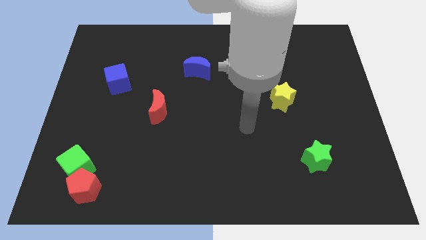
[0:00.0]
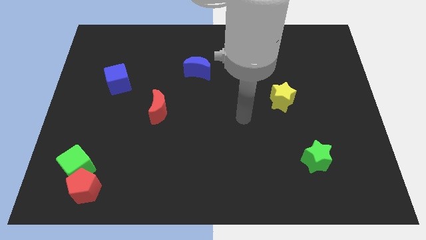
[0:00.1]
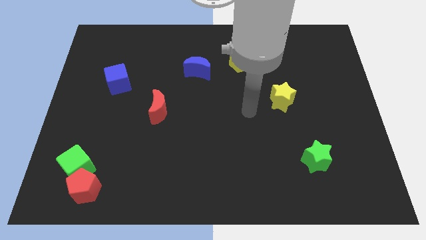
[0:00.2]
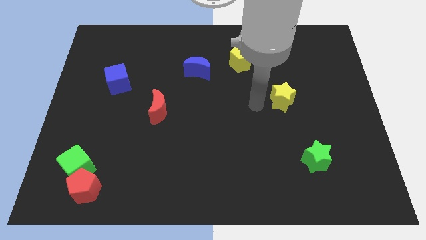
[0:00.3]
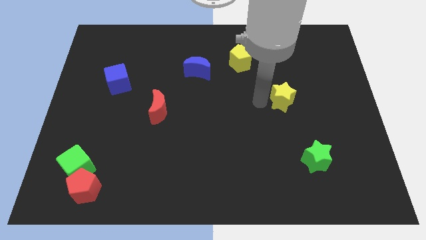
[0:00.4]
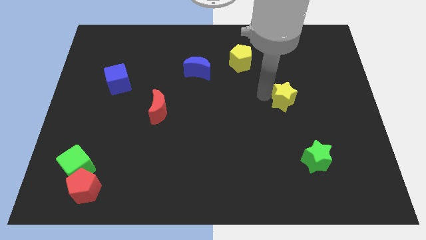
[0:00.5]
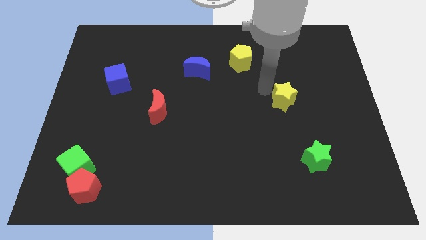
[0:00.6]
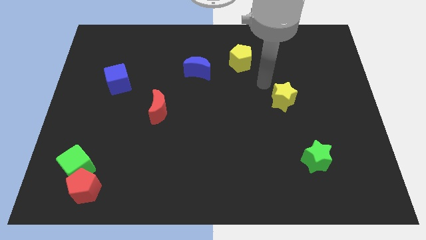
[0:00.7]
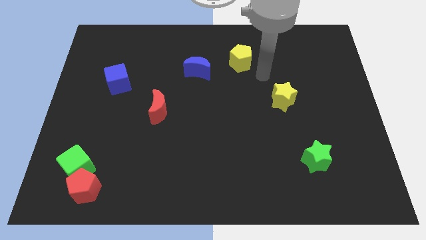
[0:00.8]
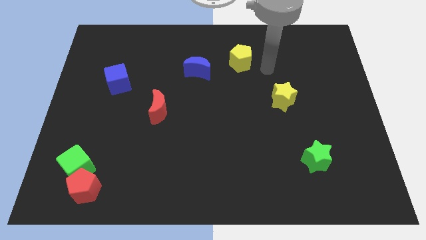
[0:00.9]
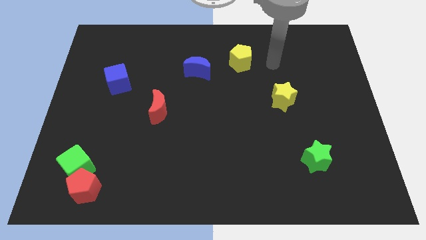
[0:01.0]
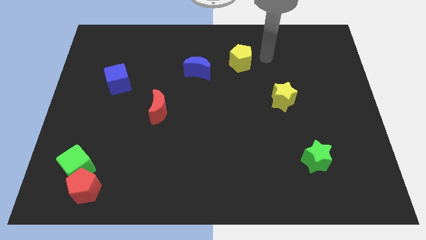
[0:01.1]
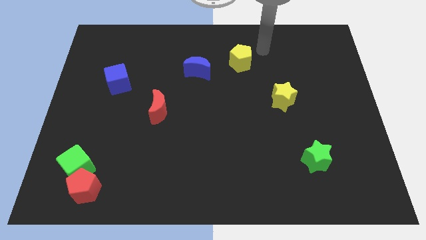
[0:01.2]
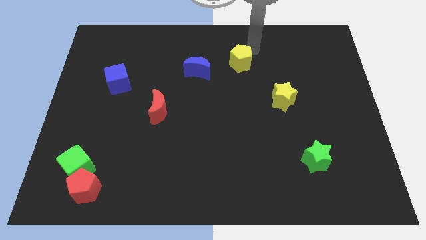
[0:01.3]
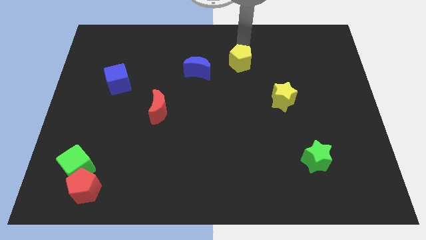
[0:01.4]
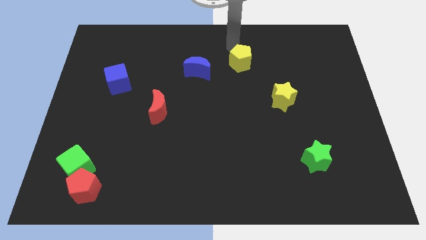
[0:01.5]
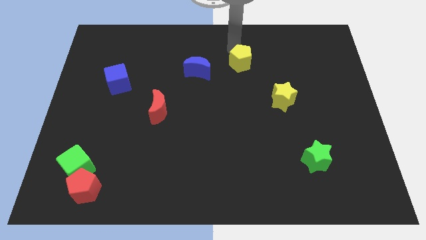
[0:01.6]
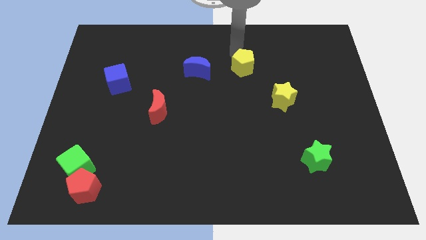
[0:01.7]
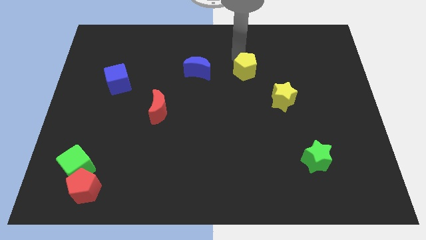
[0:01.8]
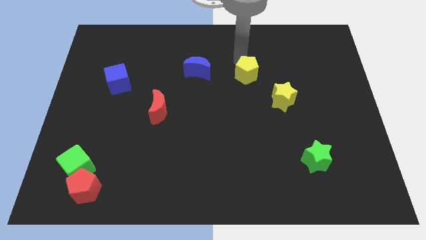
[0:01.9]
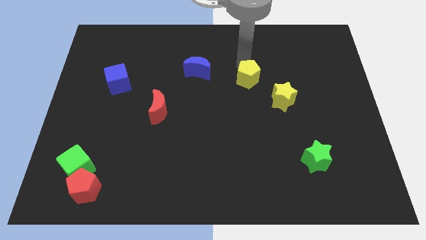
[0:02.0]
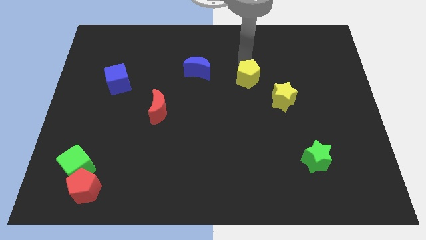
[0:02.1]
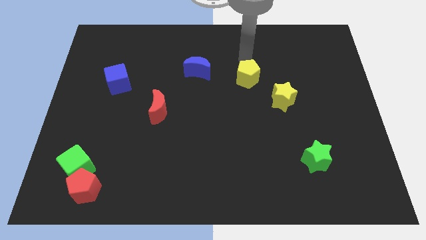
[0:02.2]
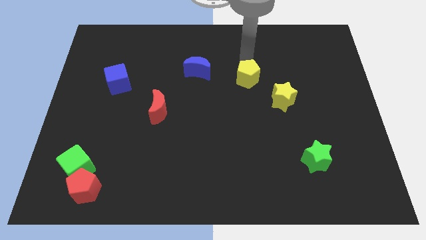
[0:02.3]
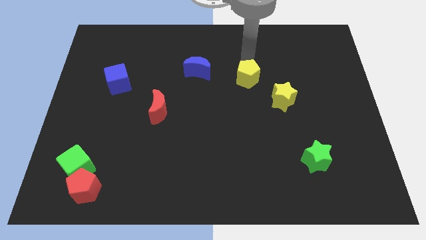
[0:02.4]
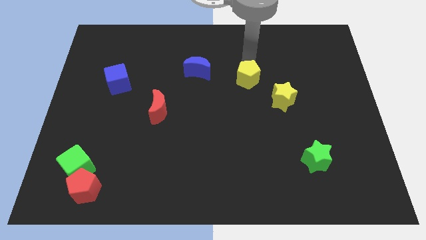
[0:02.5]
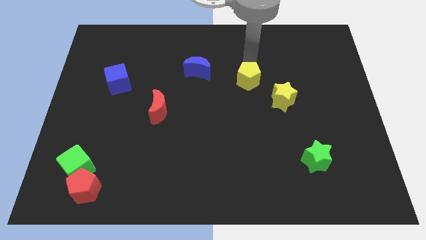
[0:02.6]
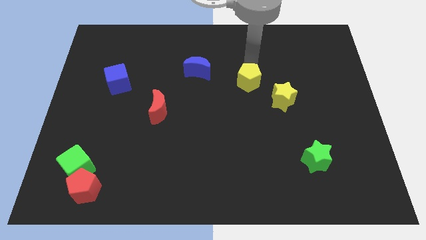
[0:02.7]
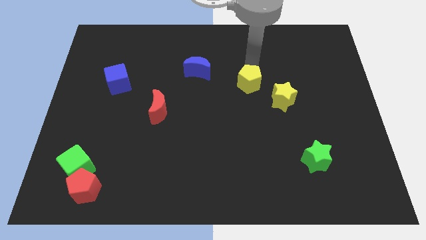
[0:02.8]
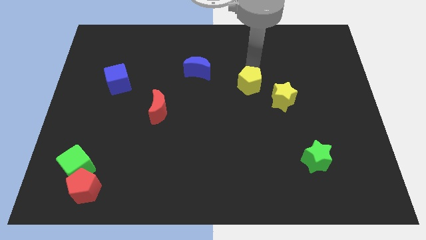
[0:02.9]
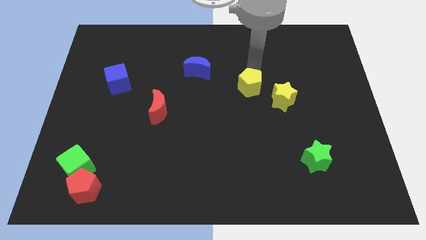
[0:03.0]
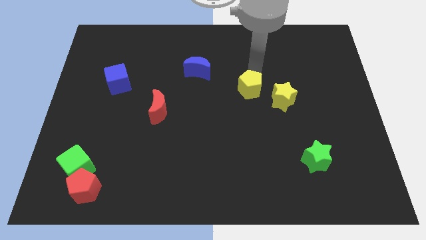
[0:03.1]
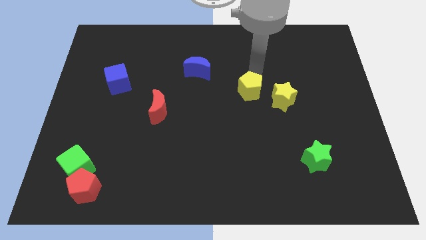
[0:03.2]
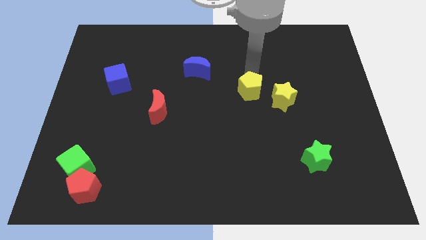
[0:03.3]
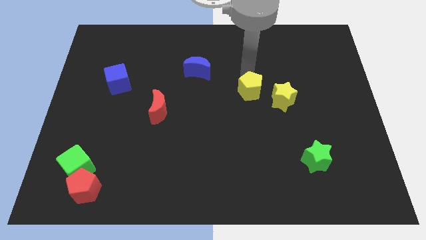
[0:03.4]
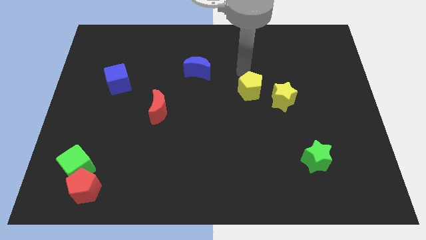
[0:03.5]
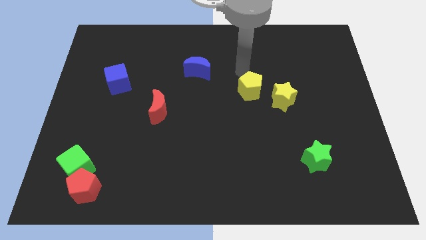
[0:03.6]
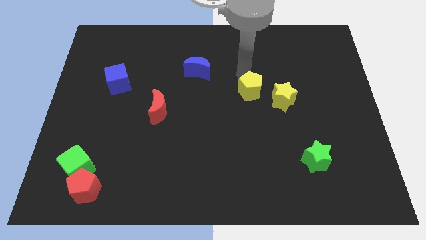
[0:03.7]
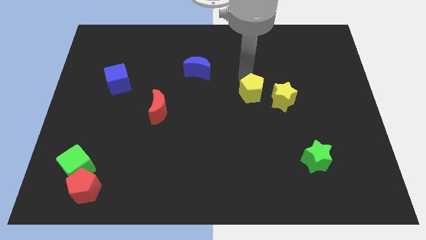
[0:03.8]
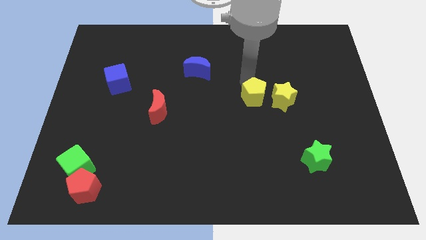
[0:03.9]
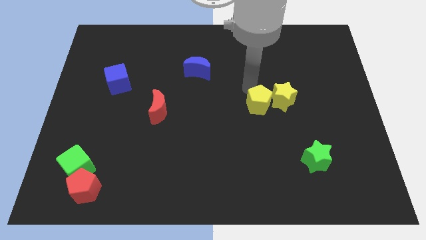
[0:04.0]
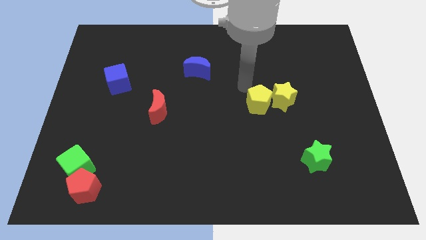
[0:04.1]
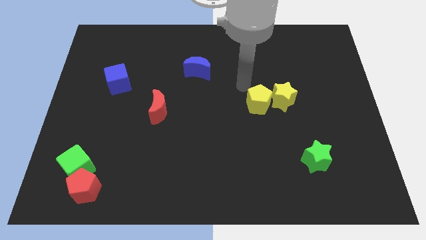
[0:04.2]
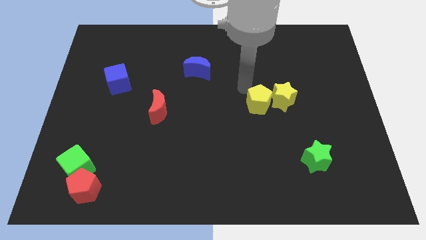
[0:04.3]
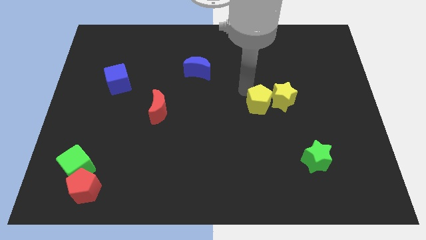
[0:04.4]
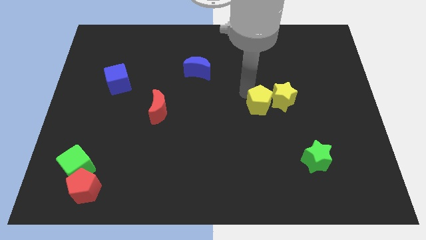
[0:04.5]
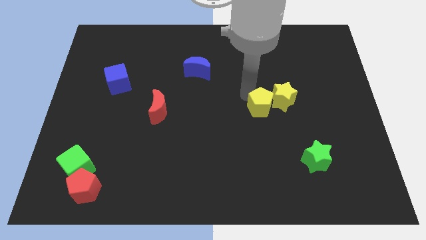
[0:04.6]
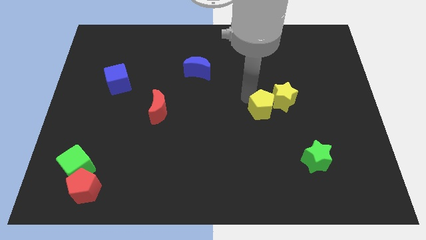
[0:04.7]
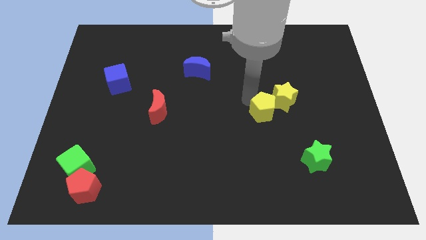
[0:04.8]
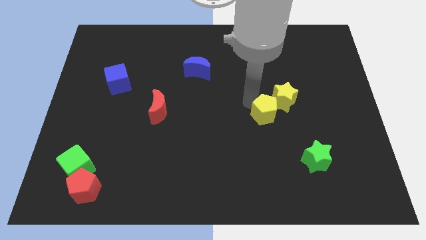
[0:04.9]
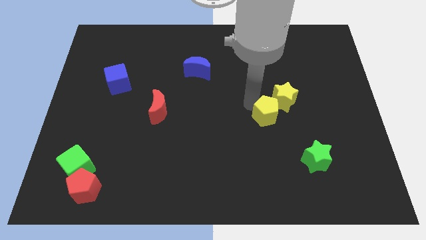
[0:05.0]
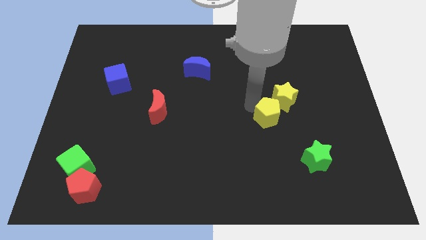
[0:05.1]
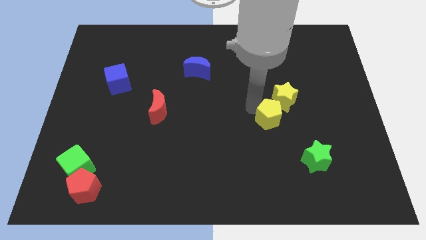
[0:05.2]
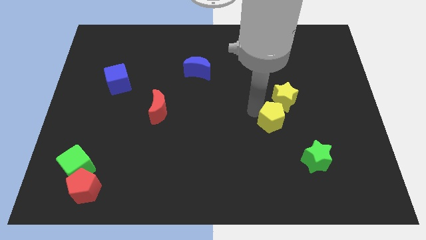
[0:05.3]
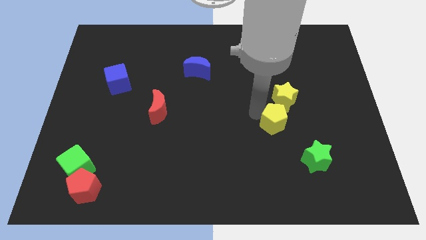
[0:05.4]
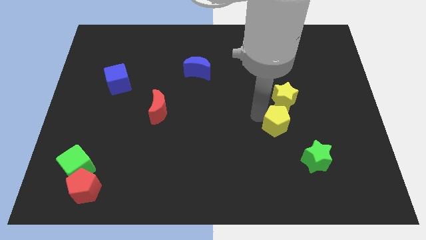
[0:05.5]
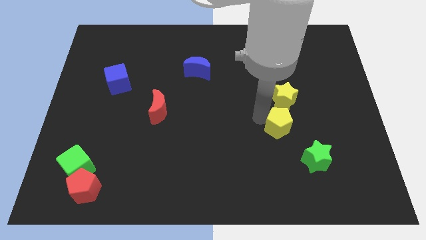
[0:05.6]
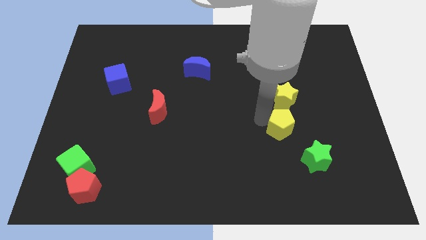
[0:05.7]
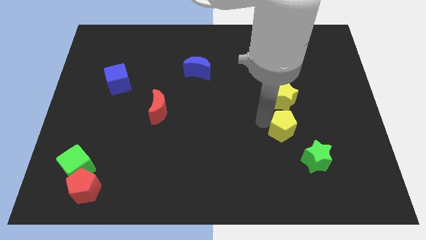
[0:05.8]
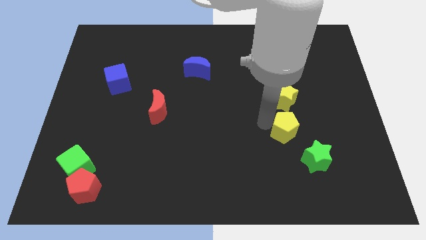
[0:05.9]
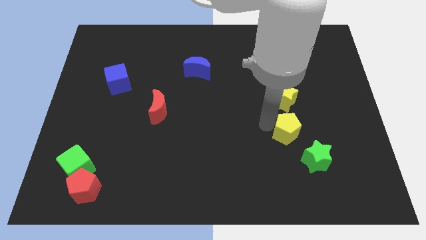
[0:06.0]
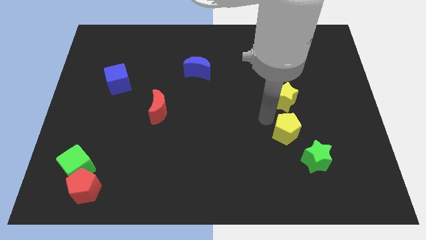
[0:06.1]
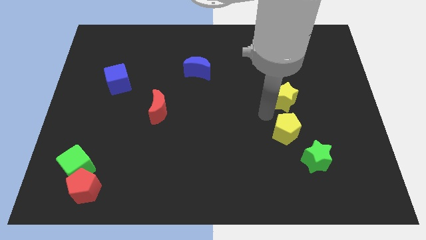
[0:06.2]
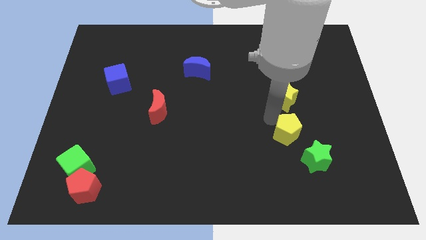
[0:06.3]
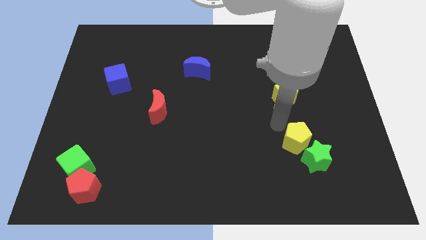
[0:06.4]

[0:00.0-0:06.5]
move the yellow pentagon towards the green star

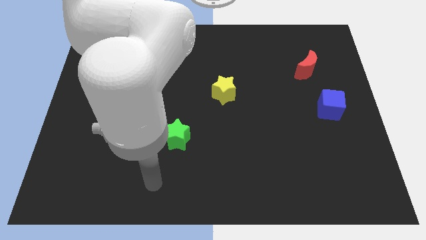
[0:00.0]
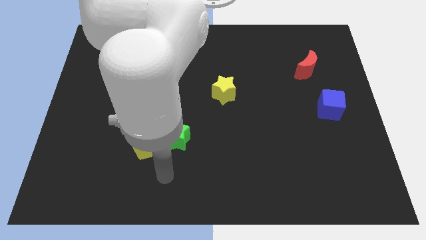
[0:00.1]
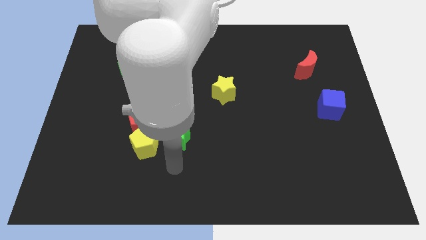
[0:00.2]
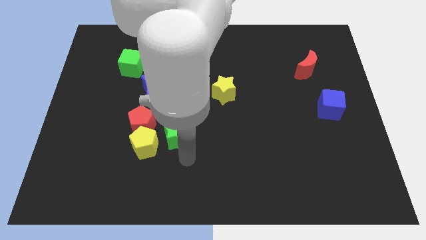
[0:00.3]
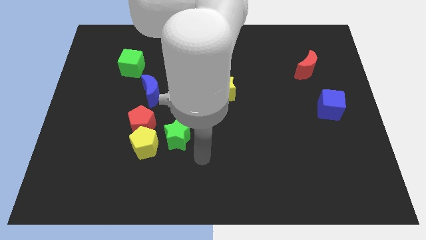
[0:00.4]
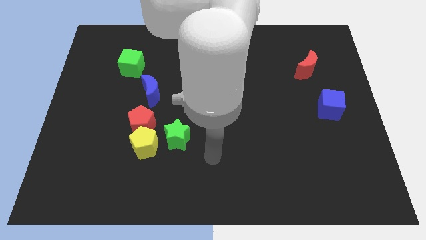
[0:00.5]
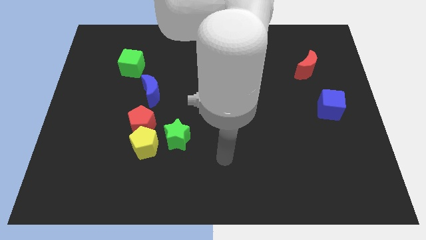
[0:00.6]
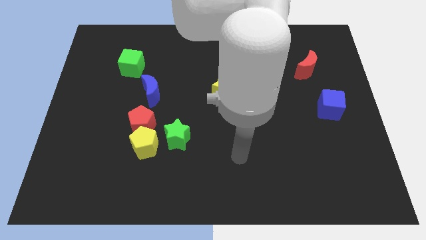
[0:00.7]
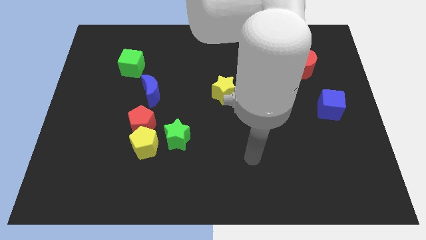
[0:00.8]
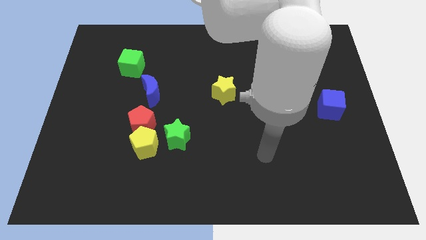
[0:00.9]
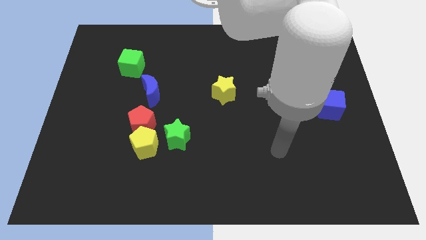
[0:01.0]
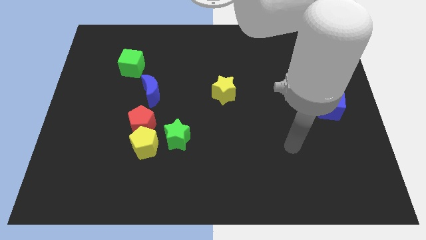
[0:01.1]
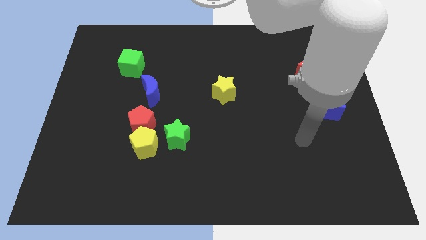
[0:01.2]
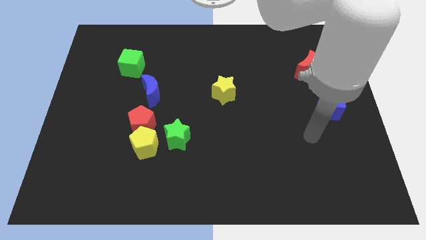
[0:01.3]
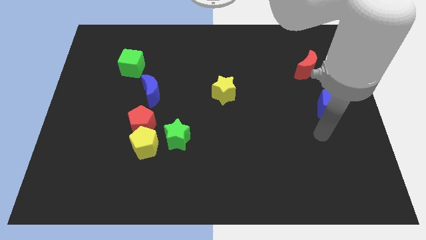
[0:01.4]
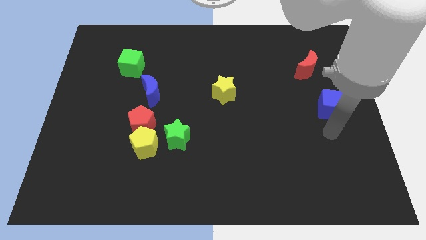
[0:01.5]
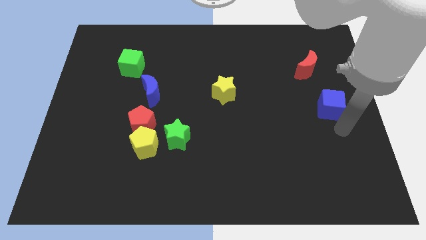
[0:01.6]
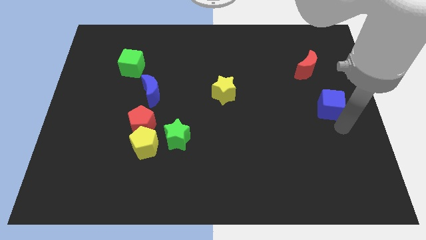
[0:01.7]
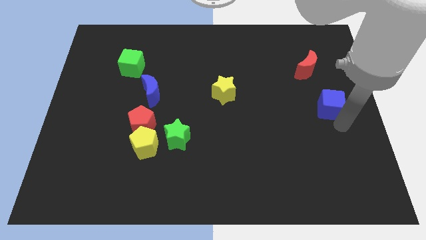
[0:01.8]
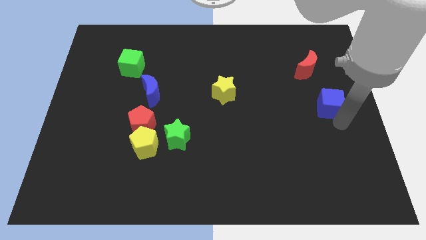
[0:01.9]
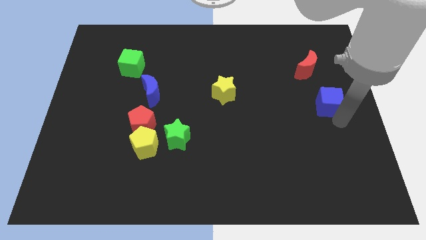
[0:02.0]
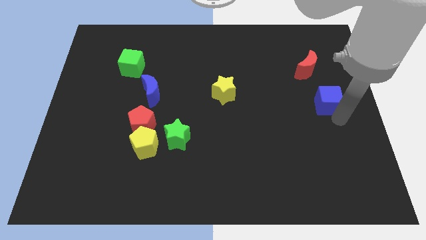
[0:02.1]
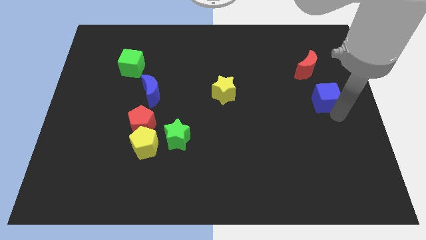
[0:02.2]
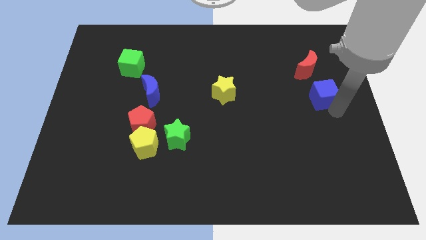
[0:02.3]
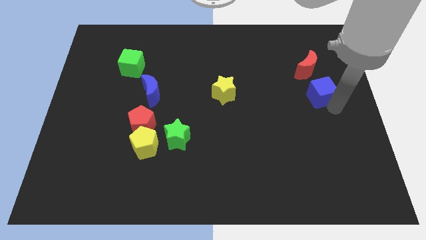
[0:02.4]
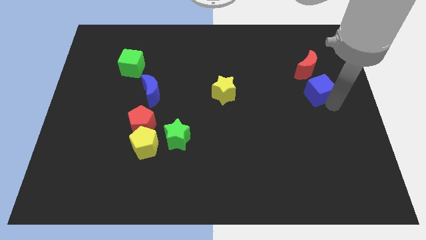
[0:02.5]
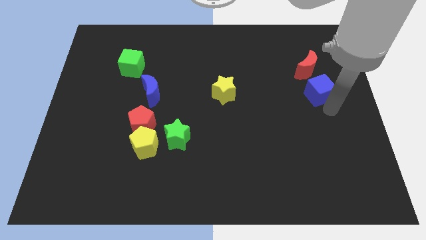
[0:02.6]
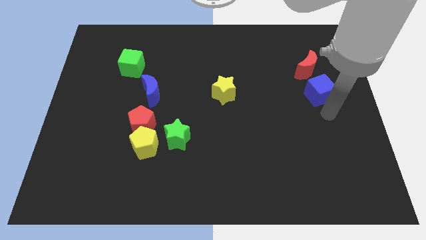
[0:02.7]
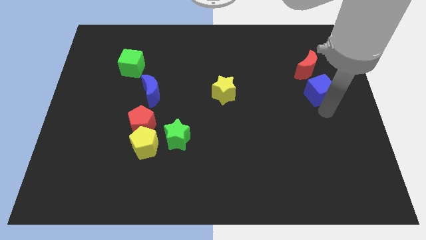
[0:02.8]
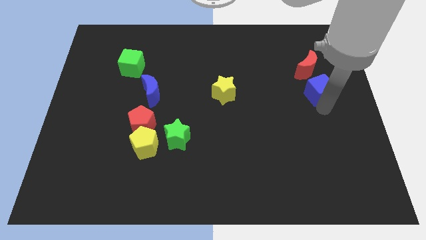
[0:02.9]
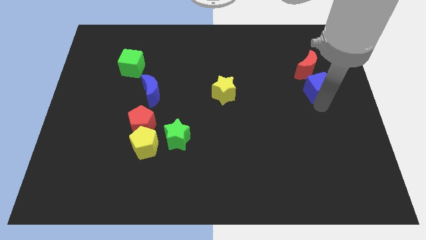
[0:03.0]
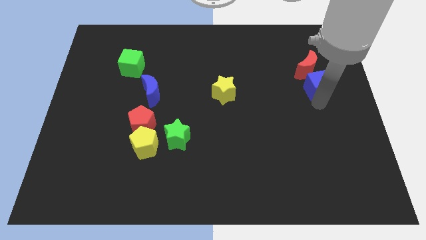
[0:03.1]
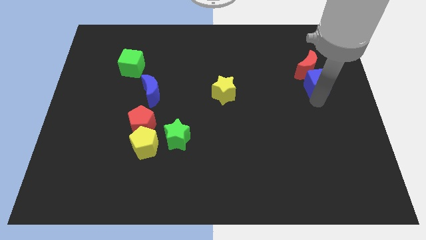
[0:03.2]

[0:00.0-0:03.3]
put the blue cube towards the red moon
